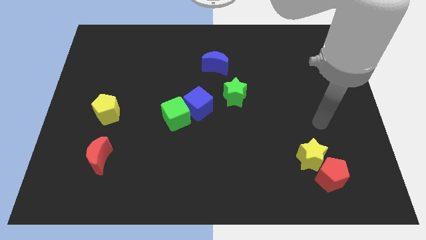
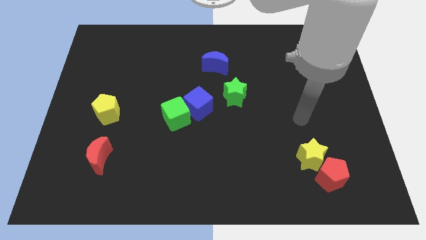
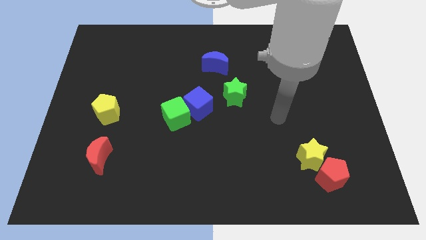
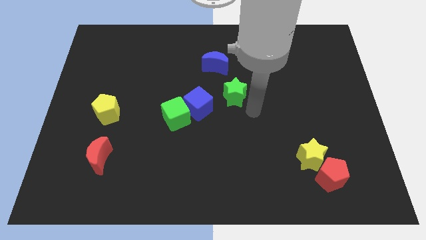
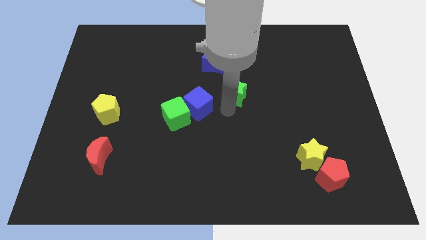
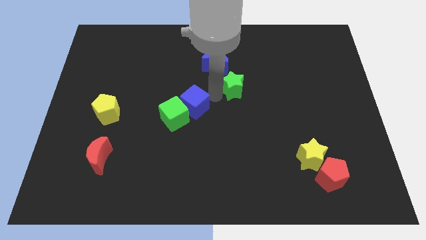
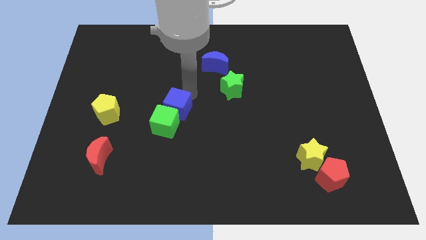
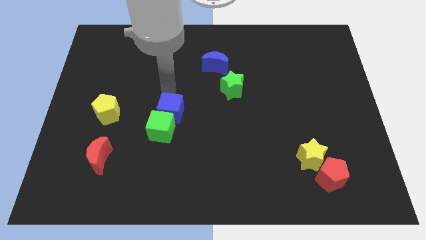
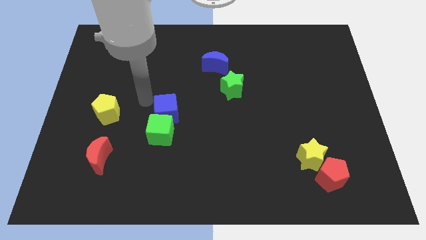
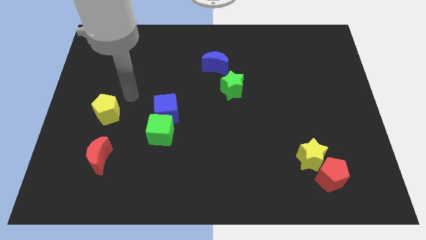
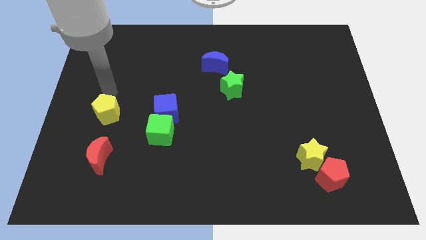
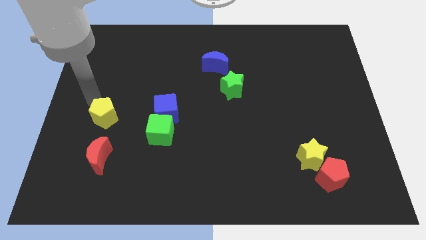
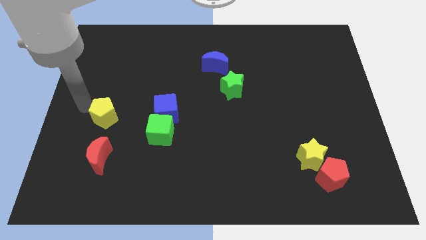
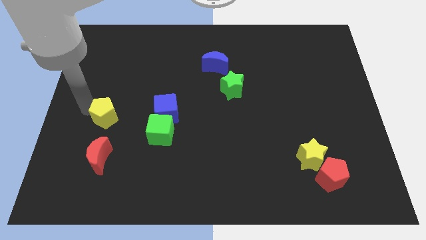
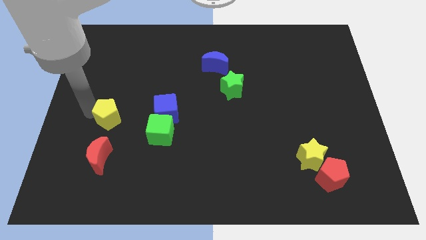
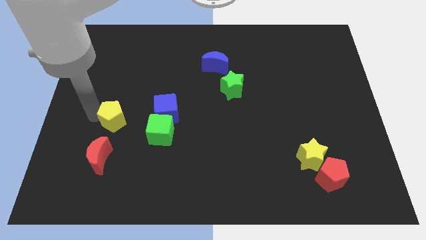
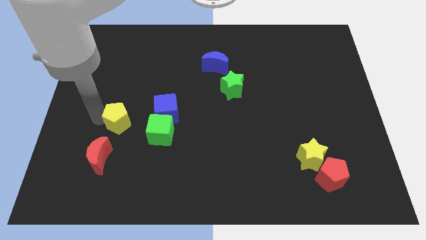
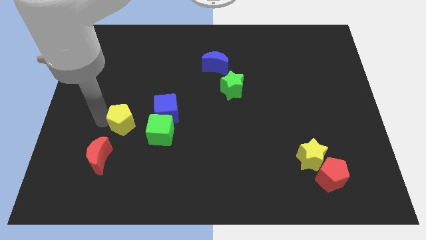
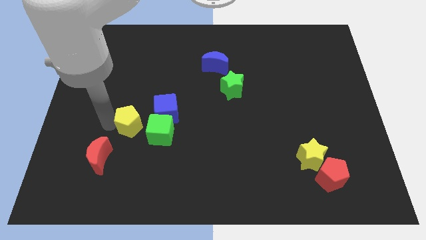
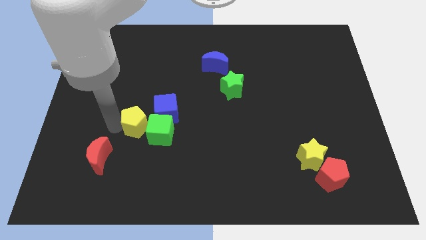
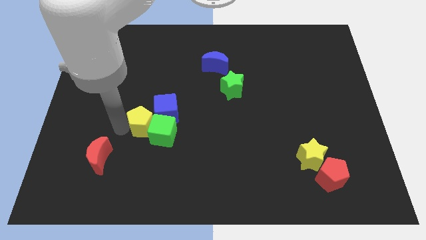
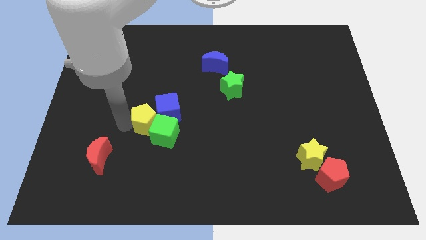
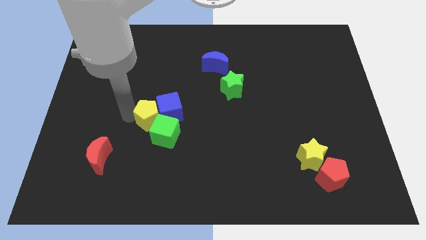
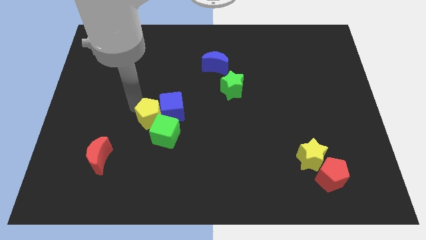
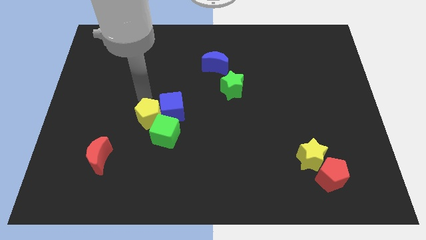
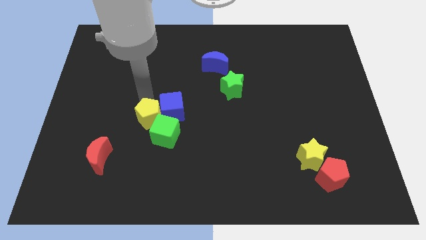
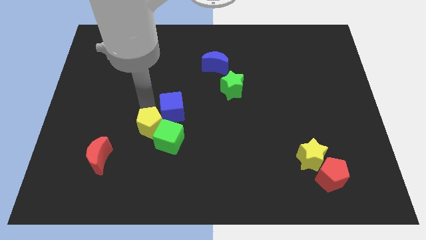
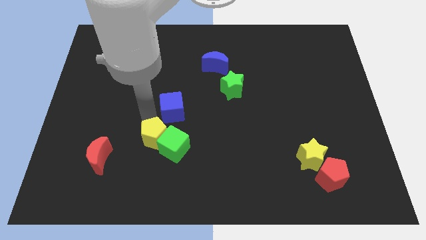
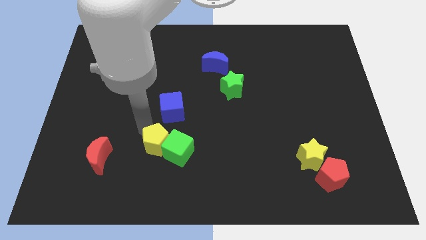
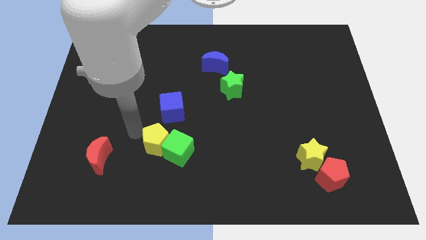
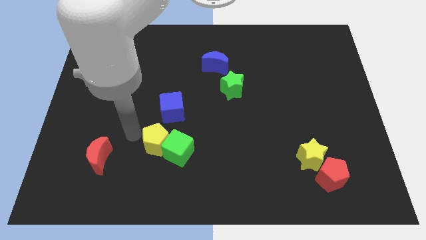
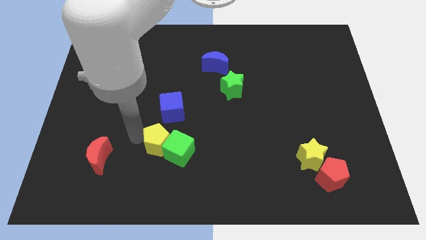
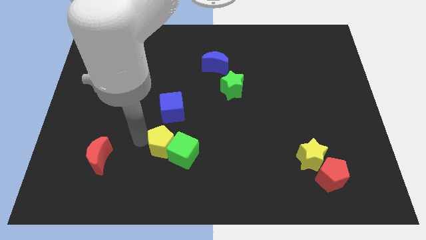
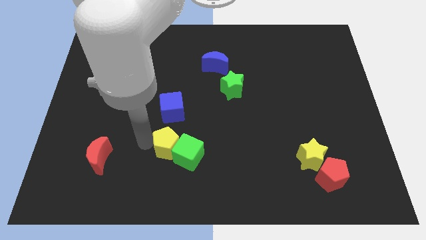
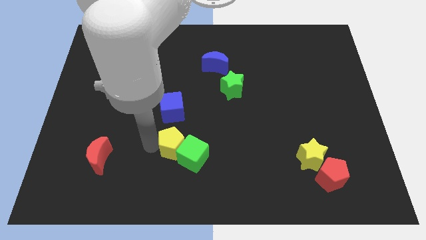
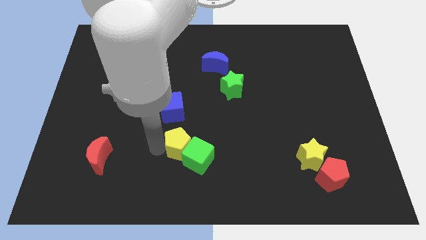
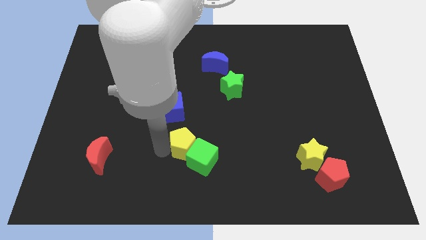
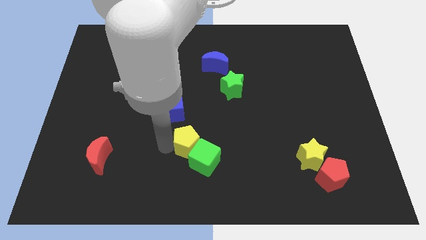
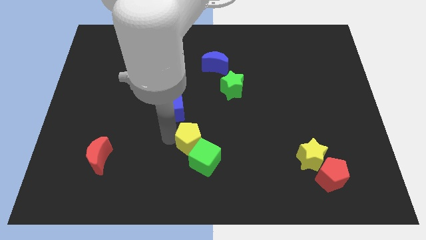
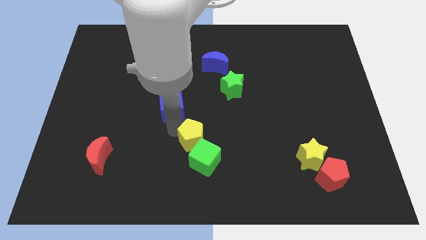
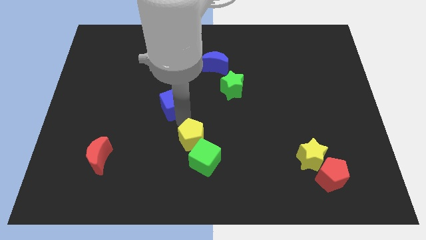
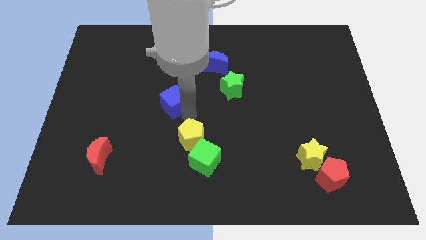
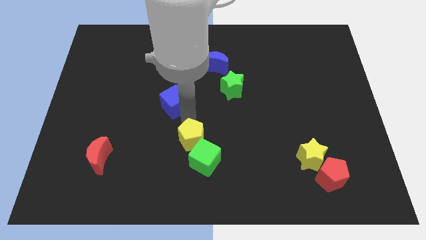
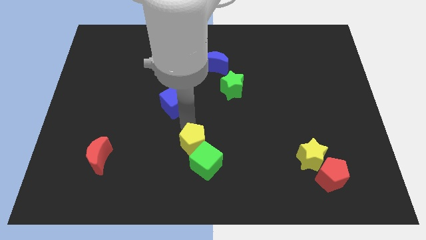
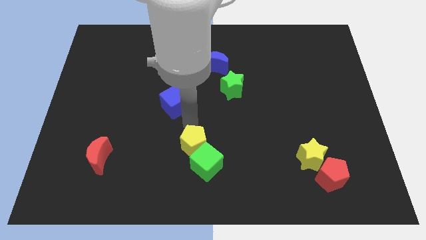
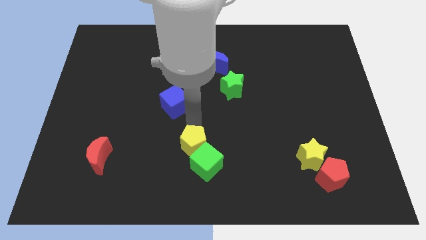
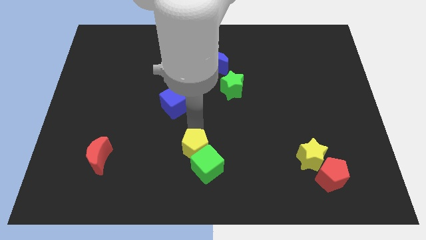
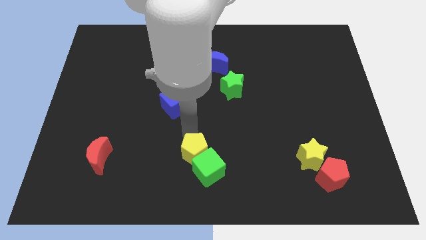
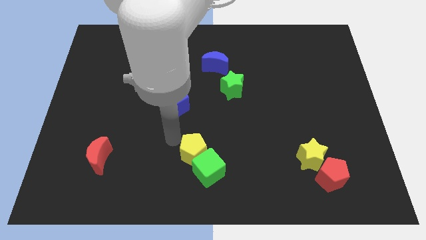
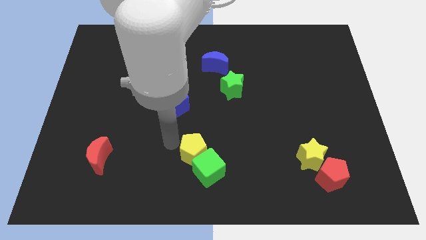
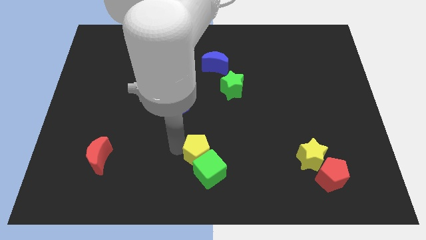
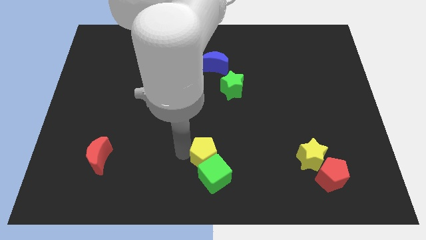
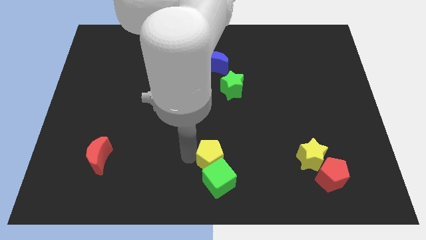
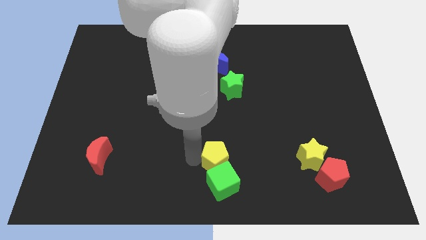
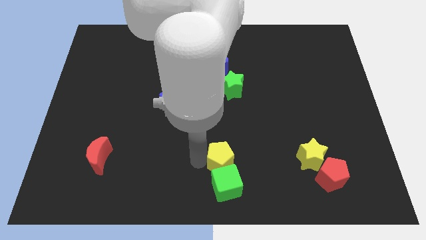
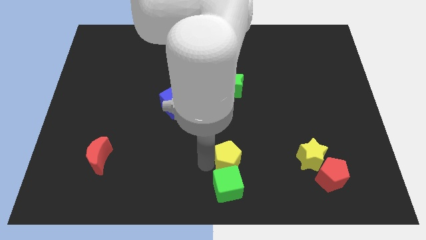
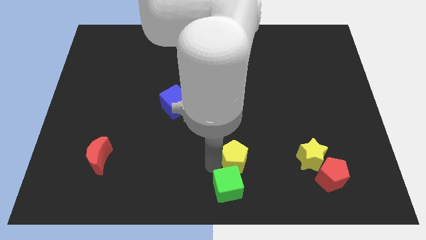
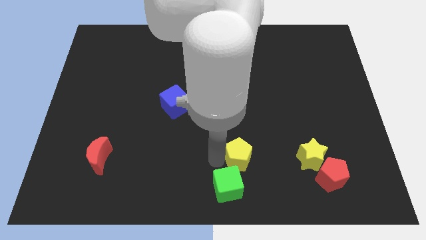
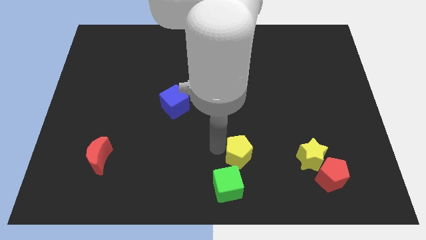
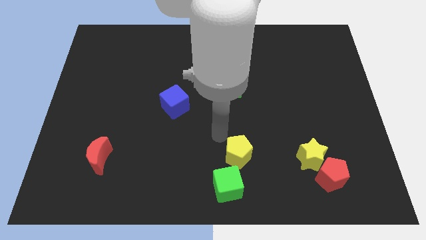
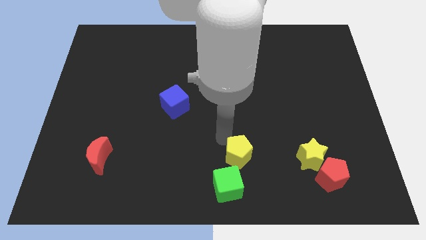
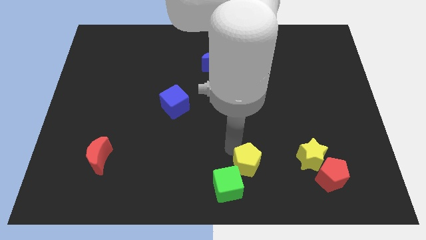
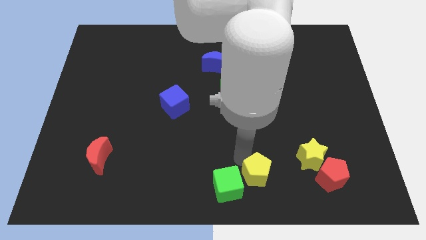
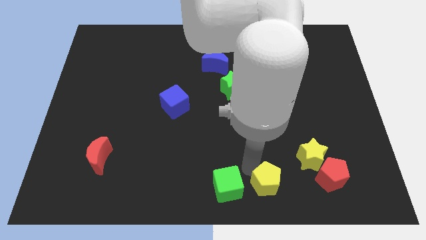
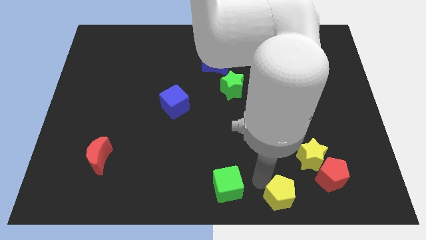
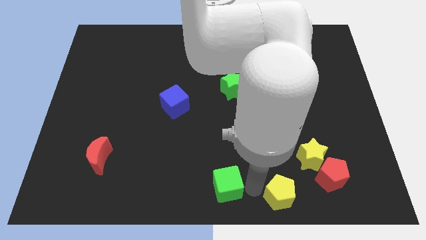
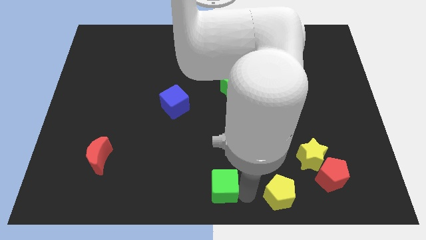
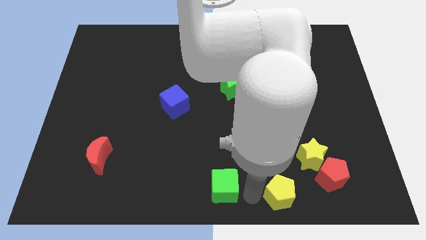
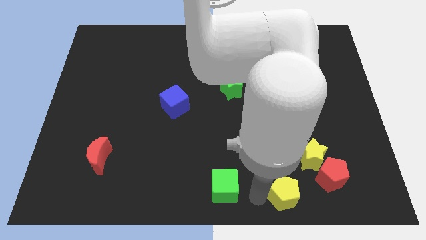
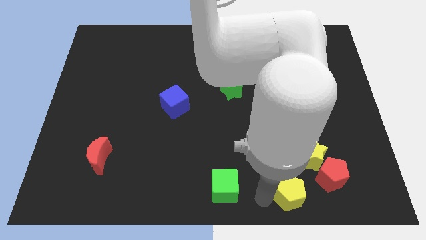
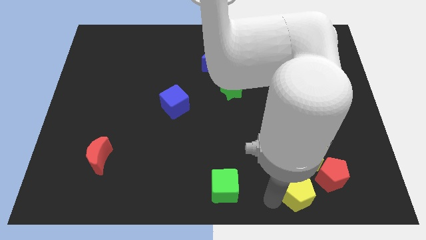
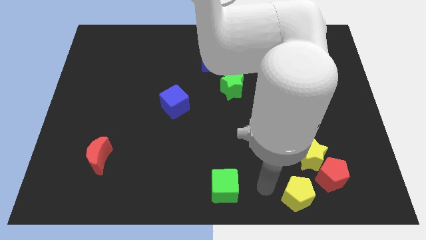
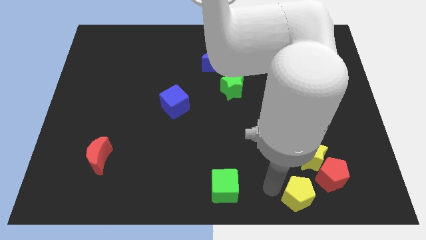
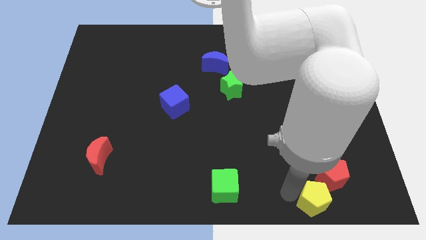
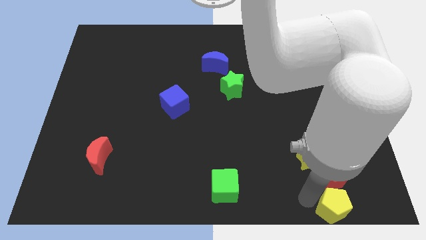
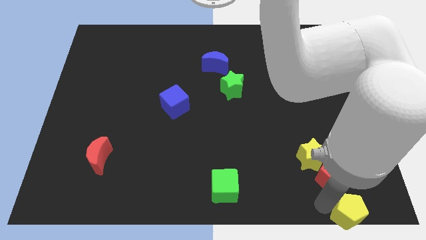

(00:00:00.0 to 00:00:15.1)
slide the yellow pentagon to the bottom right of the board
